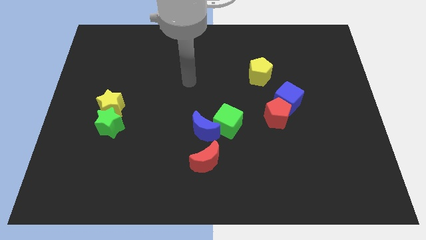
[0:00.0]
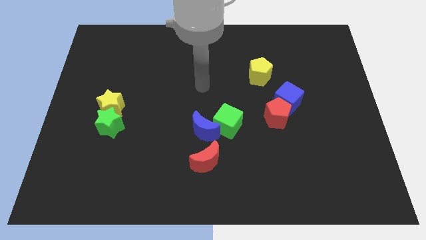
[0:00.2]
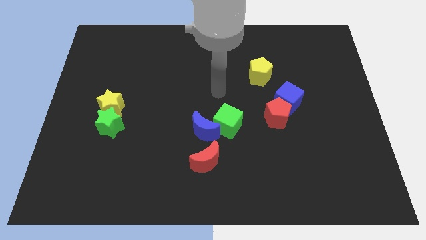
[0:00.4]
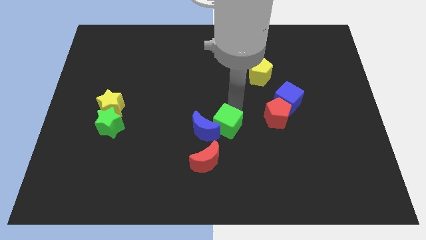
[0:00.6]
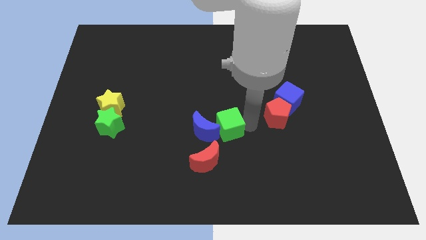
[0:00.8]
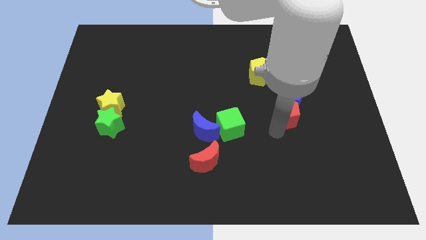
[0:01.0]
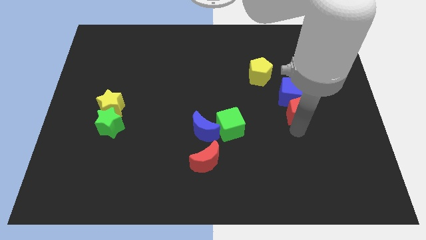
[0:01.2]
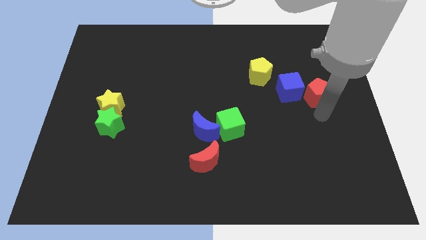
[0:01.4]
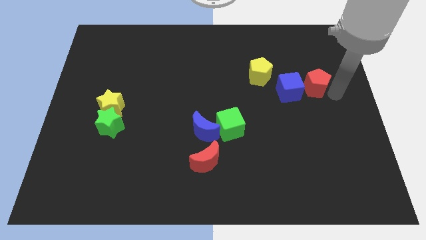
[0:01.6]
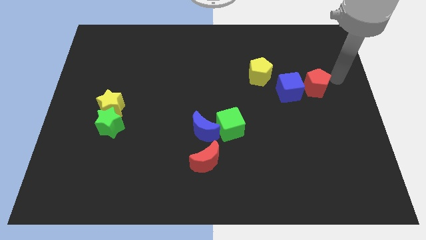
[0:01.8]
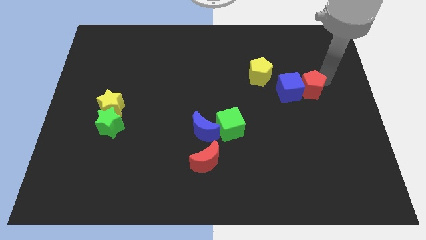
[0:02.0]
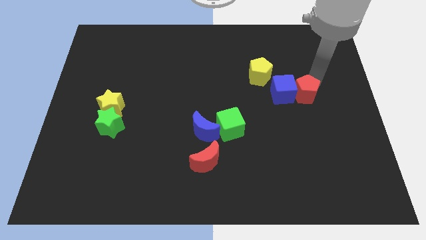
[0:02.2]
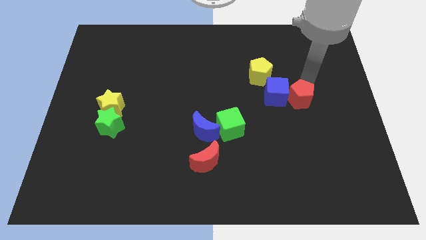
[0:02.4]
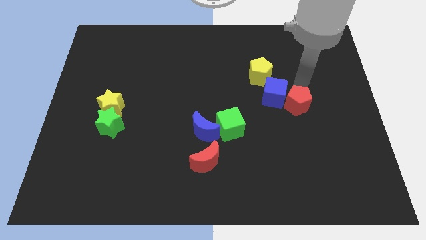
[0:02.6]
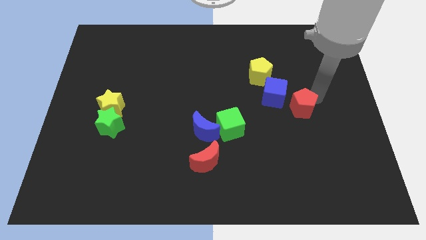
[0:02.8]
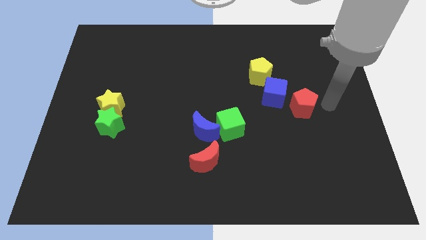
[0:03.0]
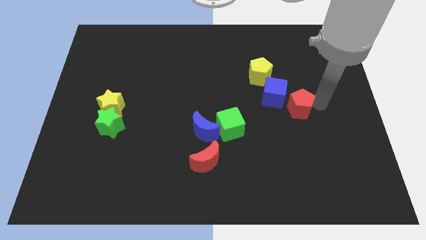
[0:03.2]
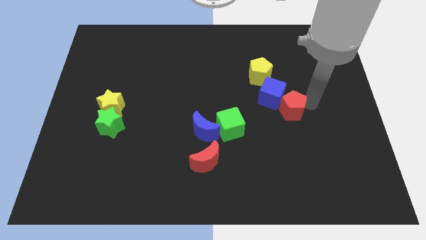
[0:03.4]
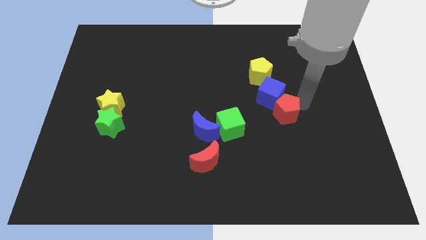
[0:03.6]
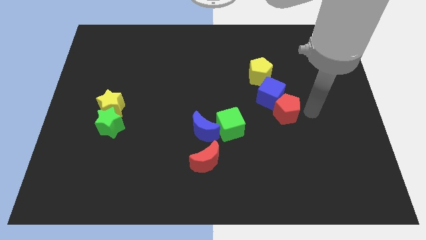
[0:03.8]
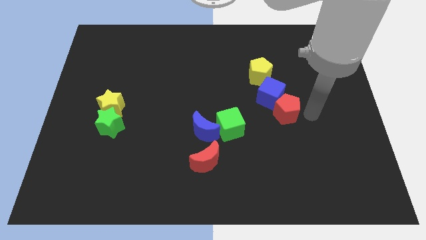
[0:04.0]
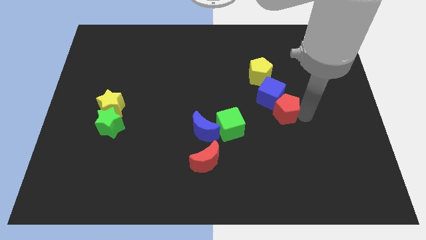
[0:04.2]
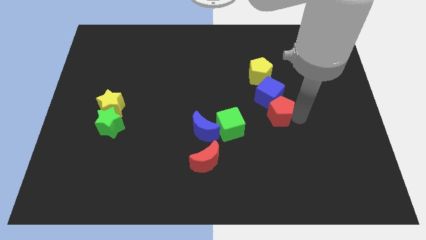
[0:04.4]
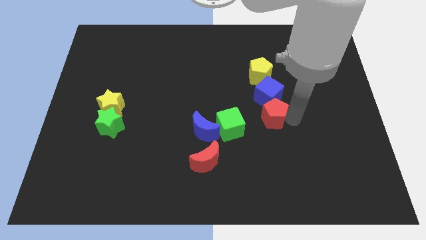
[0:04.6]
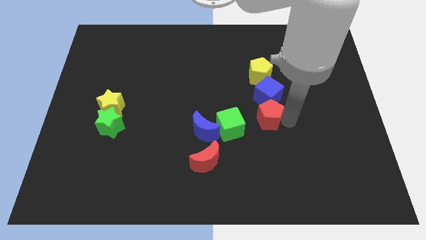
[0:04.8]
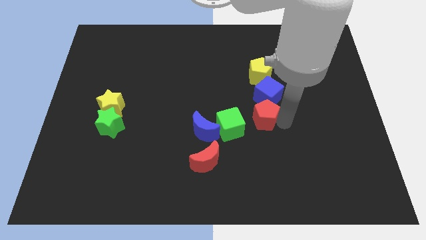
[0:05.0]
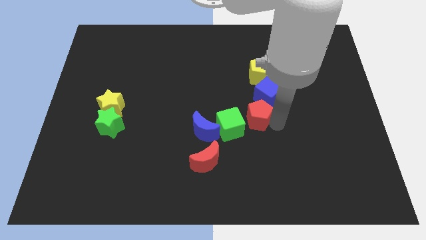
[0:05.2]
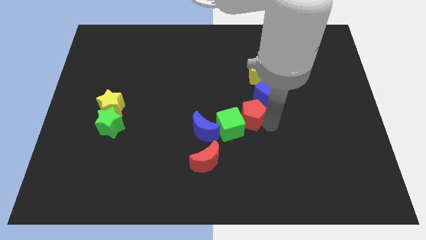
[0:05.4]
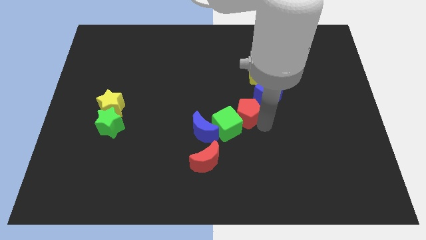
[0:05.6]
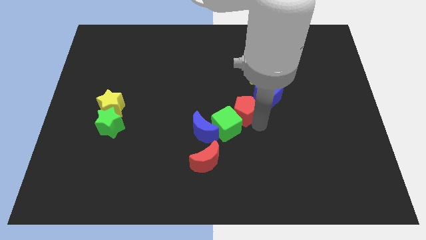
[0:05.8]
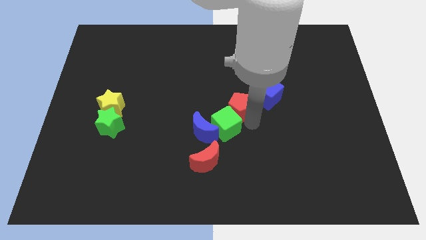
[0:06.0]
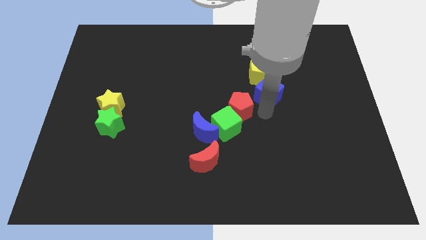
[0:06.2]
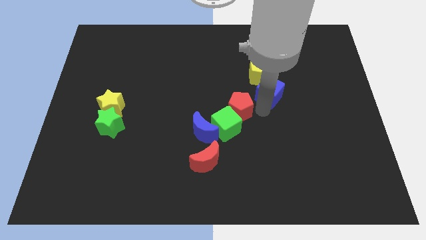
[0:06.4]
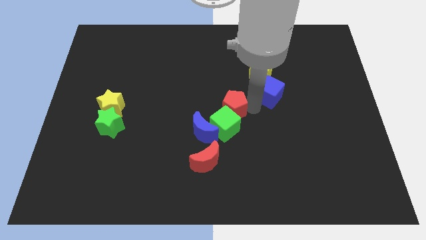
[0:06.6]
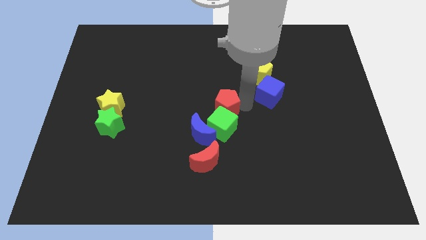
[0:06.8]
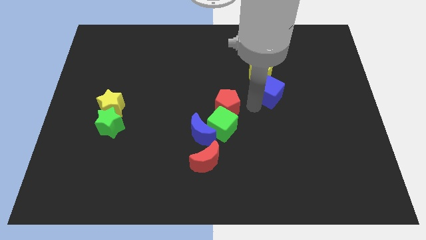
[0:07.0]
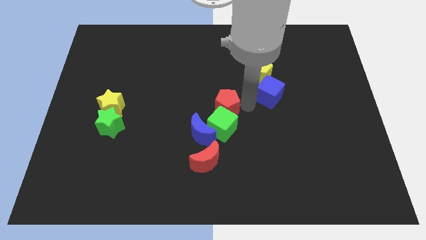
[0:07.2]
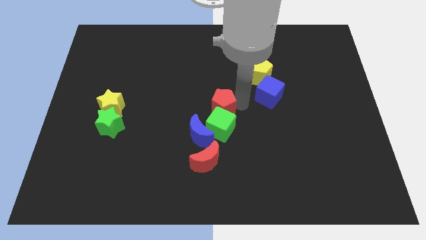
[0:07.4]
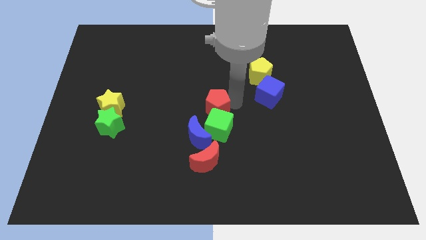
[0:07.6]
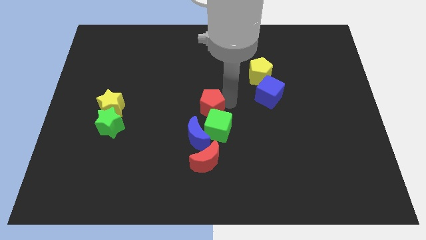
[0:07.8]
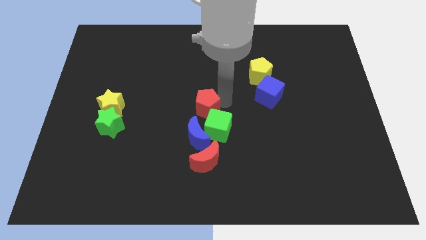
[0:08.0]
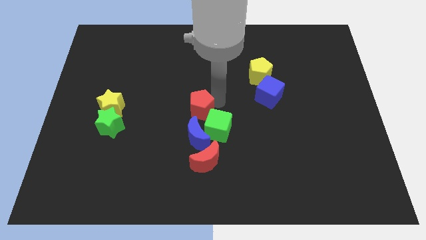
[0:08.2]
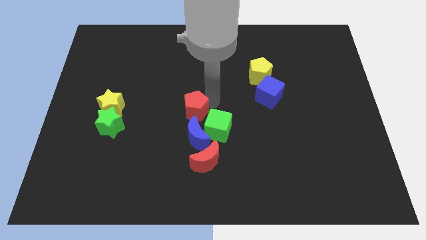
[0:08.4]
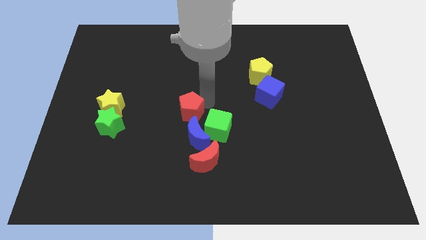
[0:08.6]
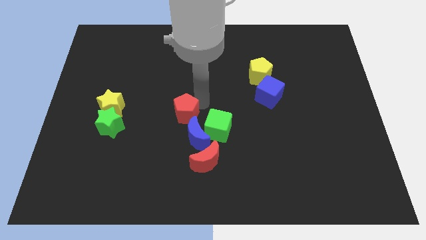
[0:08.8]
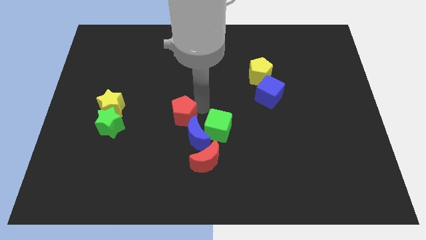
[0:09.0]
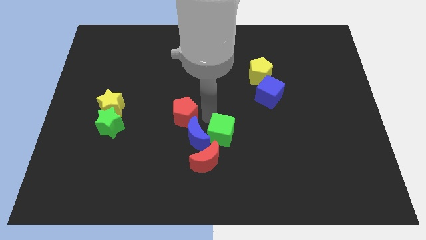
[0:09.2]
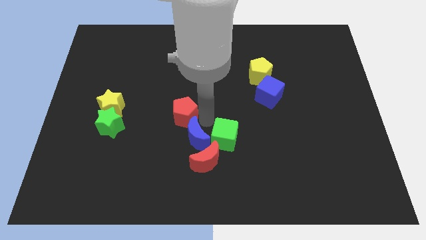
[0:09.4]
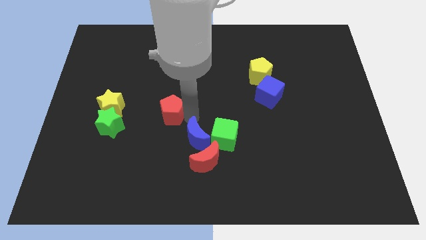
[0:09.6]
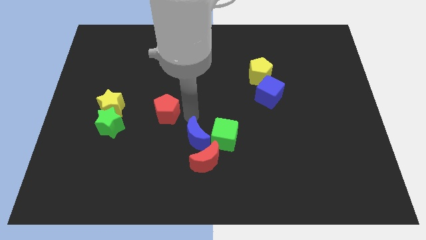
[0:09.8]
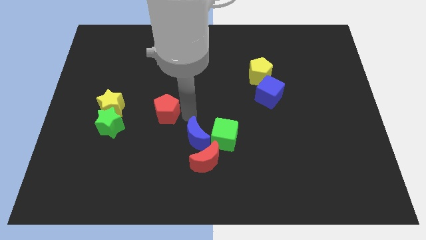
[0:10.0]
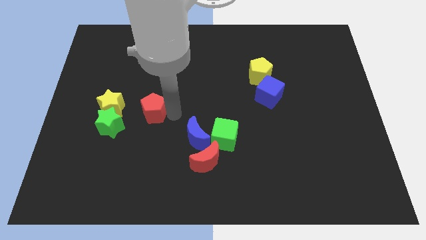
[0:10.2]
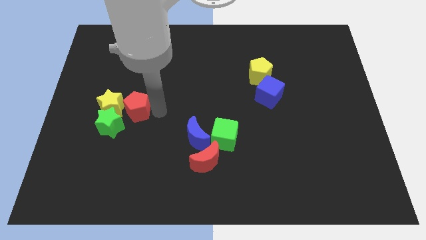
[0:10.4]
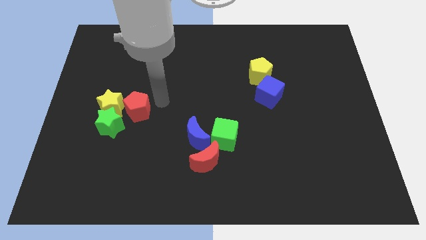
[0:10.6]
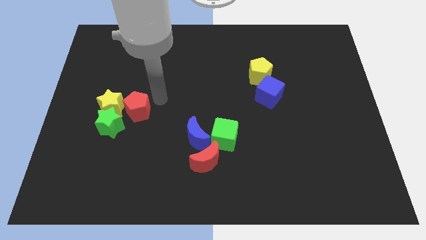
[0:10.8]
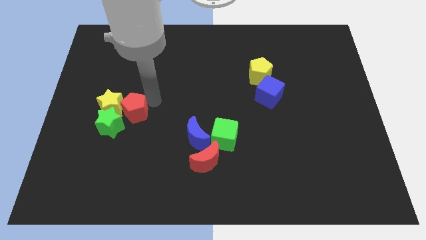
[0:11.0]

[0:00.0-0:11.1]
move the red pentagon to the green star
